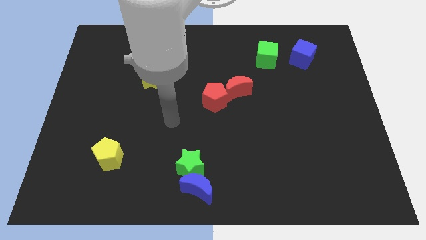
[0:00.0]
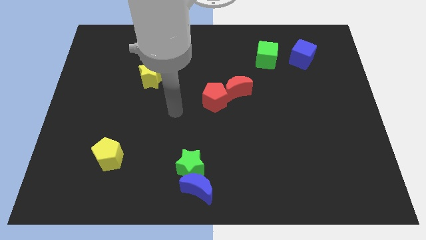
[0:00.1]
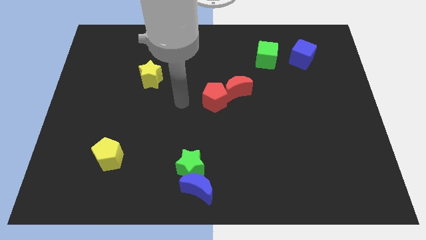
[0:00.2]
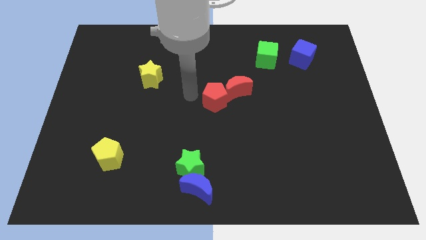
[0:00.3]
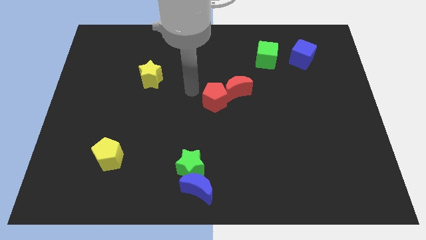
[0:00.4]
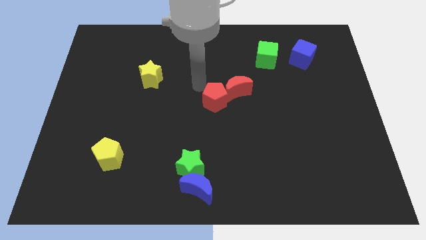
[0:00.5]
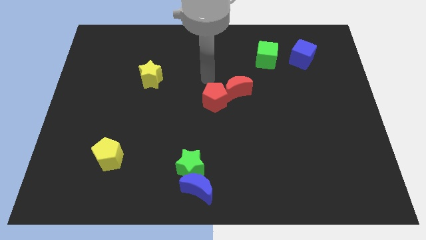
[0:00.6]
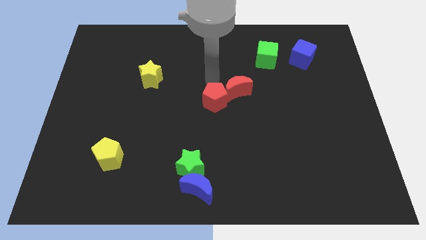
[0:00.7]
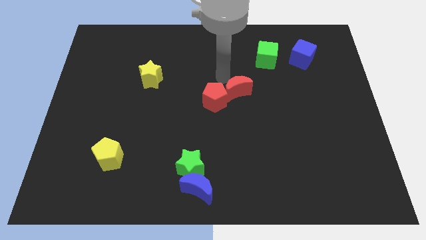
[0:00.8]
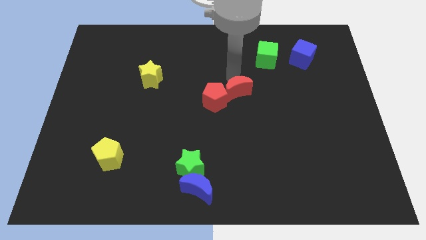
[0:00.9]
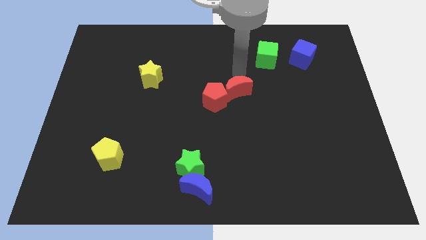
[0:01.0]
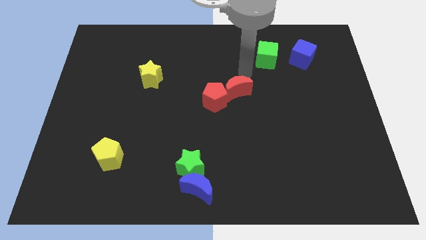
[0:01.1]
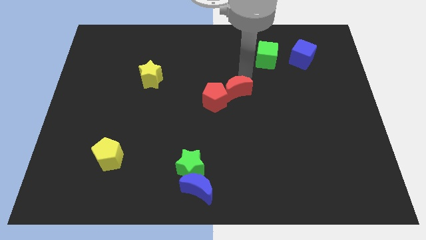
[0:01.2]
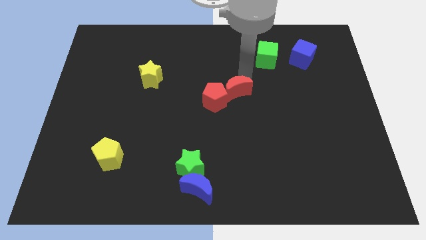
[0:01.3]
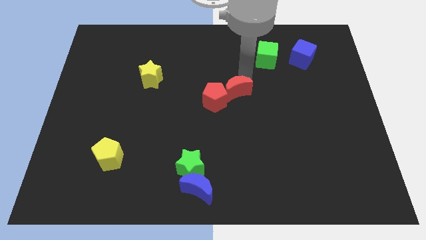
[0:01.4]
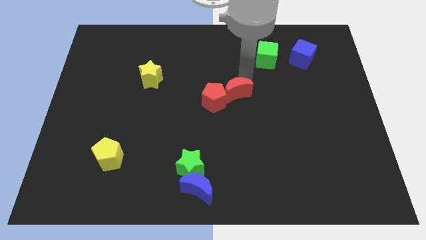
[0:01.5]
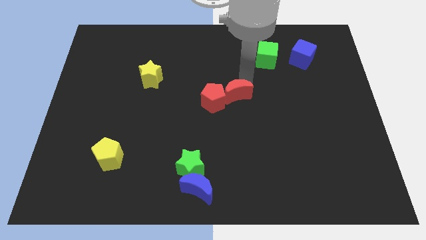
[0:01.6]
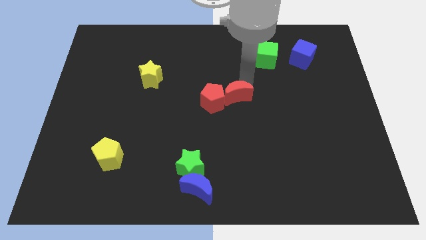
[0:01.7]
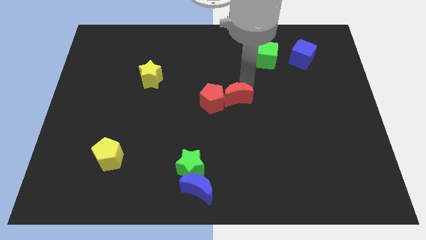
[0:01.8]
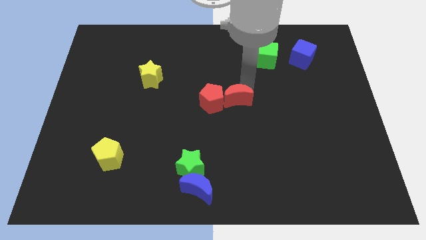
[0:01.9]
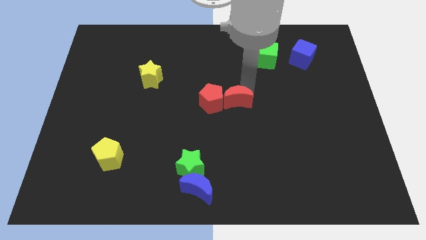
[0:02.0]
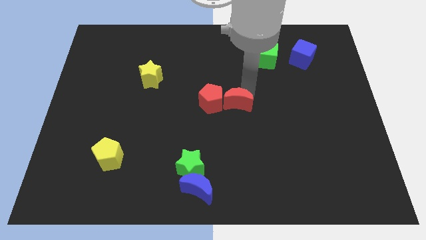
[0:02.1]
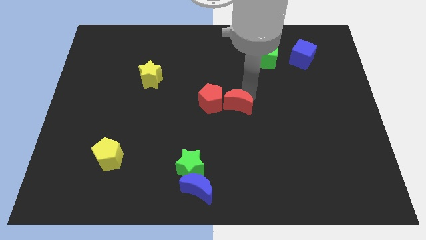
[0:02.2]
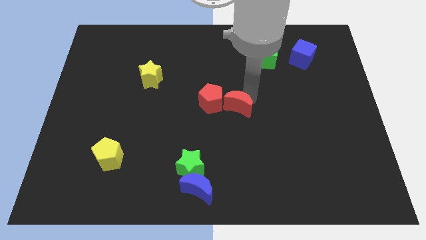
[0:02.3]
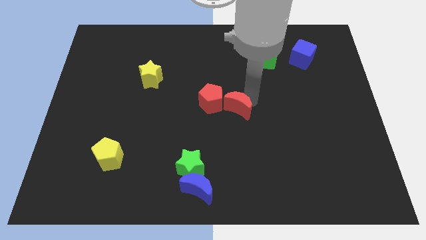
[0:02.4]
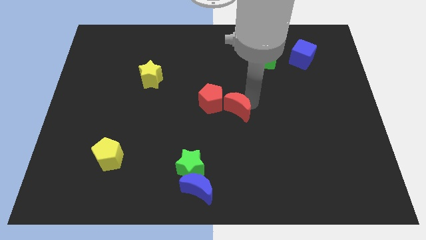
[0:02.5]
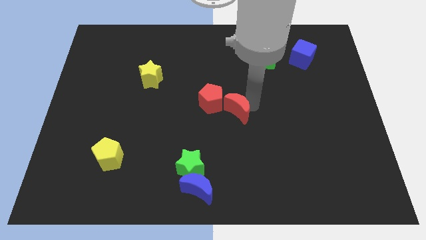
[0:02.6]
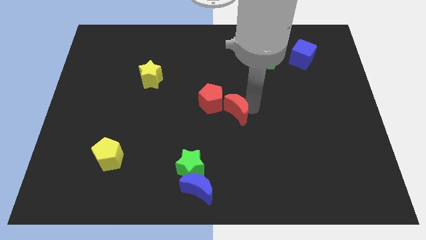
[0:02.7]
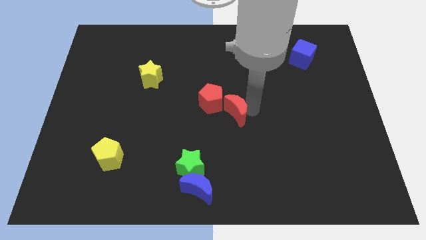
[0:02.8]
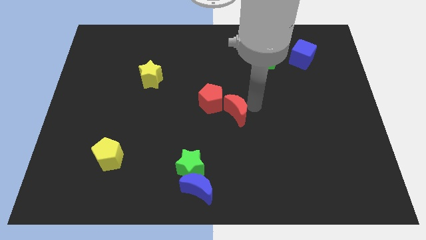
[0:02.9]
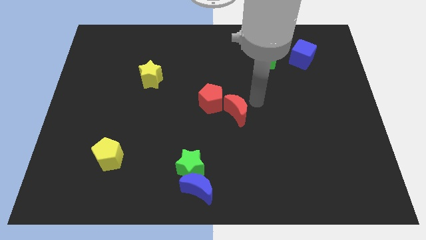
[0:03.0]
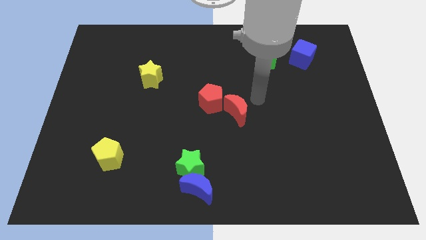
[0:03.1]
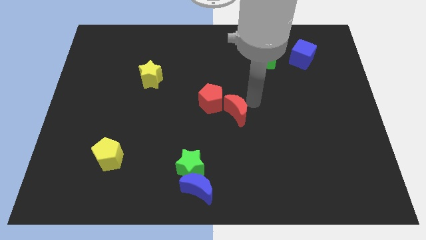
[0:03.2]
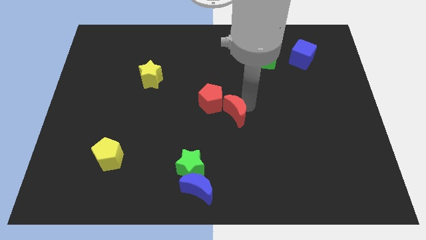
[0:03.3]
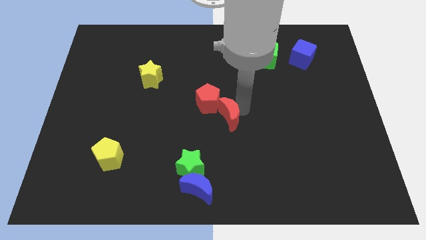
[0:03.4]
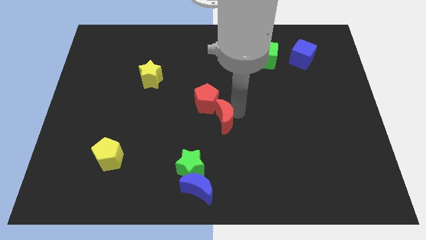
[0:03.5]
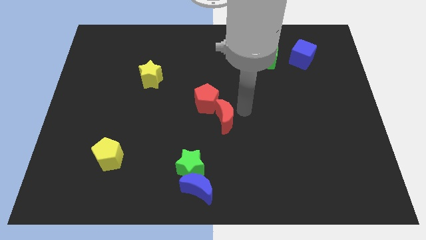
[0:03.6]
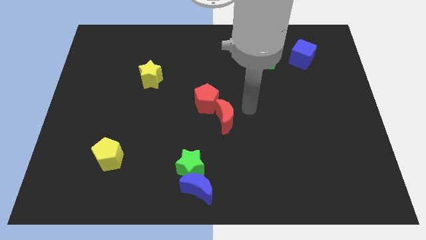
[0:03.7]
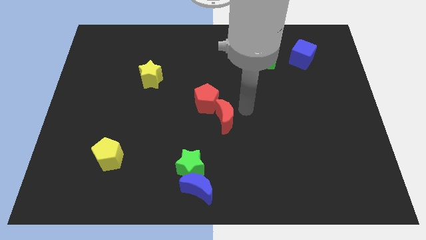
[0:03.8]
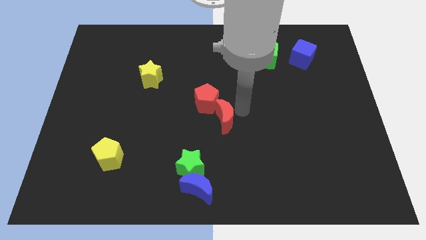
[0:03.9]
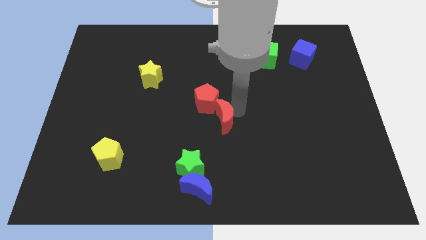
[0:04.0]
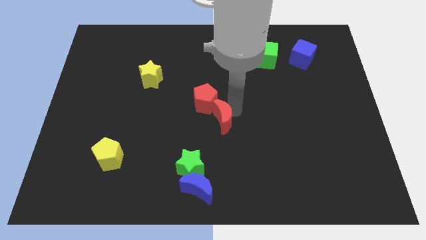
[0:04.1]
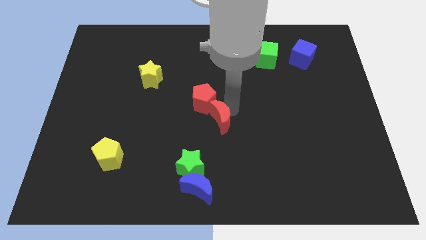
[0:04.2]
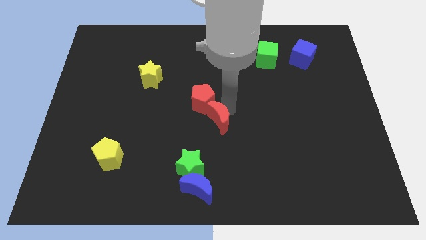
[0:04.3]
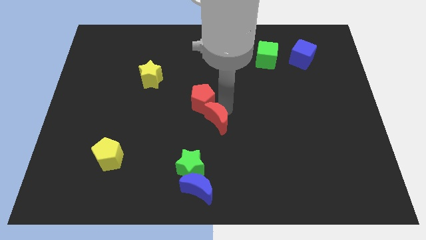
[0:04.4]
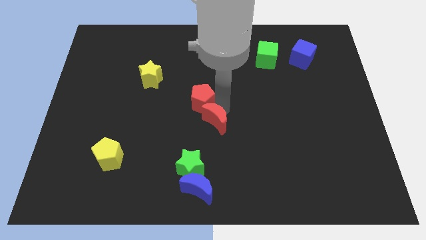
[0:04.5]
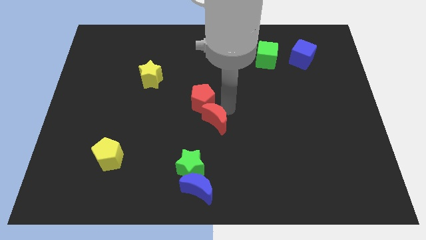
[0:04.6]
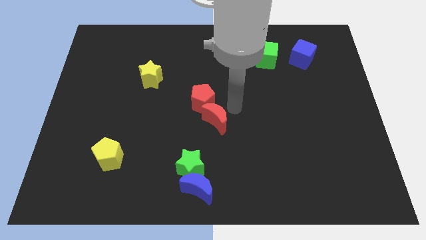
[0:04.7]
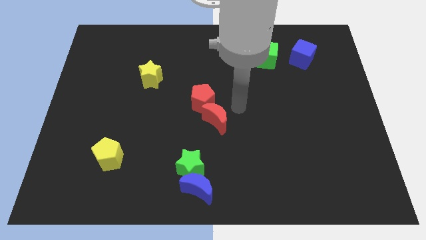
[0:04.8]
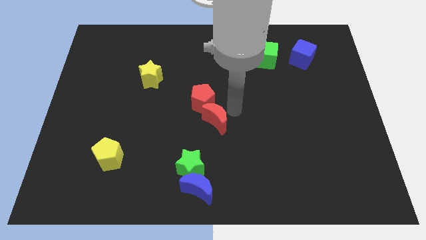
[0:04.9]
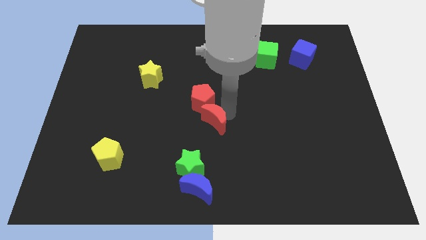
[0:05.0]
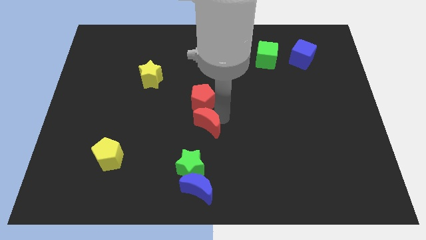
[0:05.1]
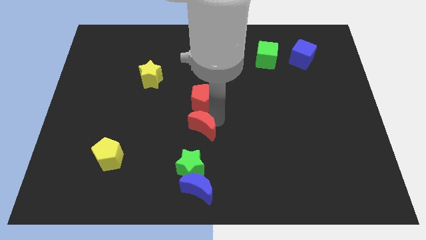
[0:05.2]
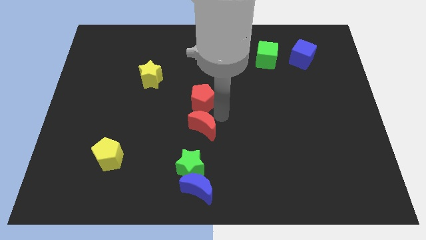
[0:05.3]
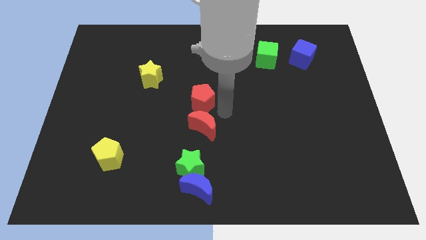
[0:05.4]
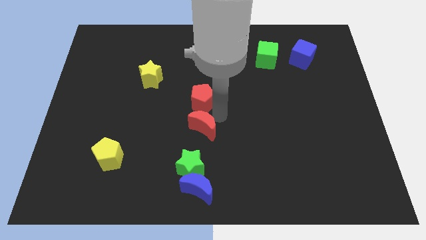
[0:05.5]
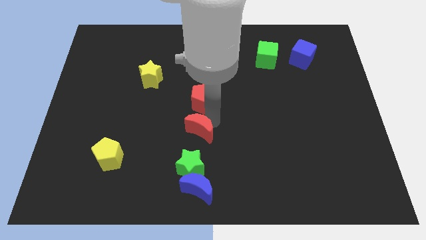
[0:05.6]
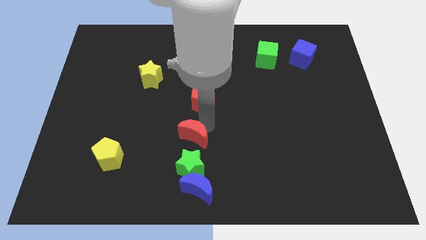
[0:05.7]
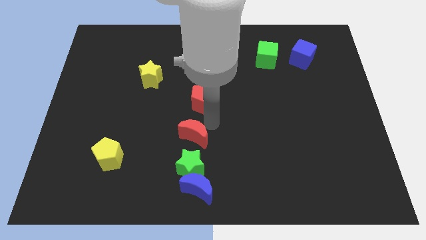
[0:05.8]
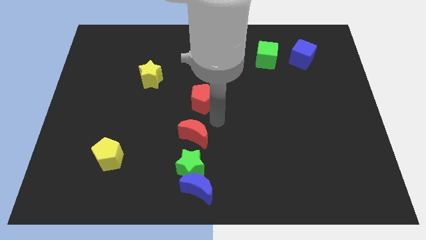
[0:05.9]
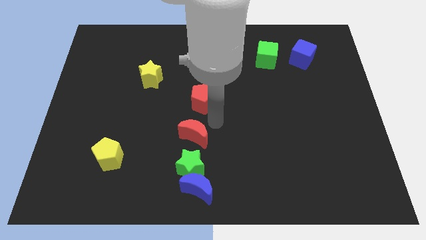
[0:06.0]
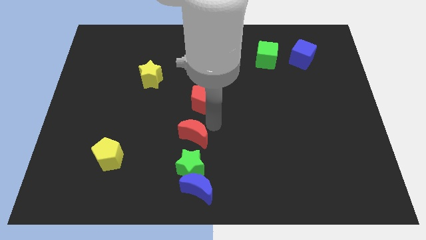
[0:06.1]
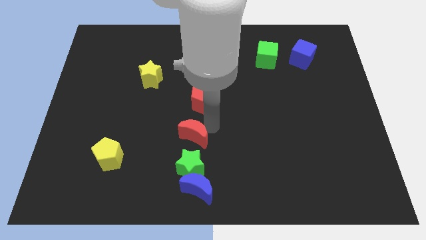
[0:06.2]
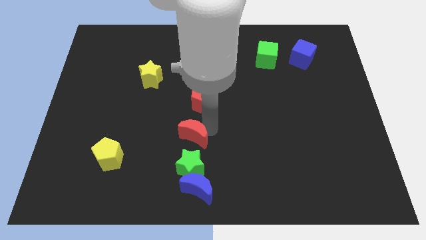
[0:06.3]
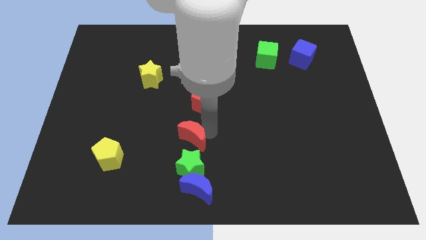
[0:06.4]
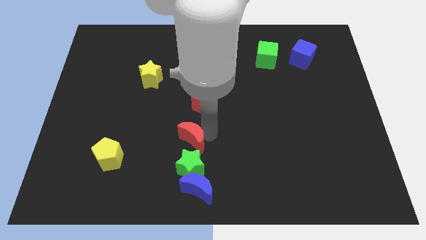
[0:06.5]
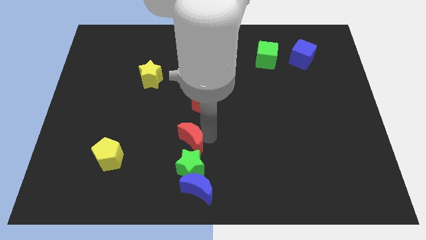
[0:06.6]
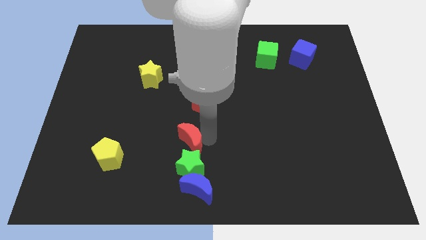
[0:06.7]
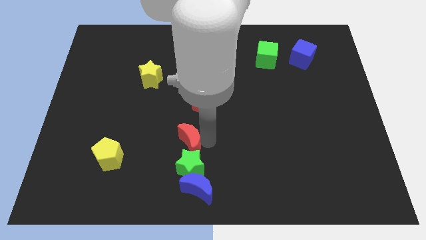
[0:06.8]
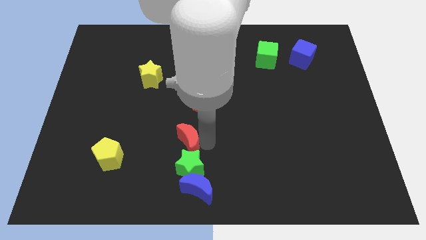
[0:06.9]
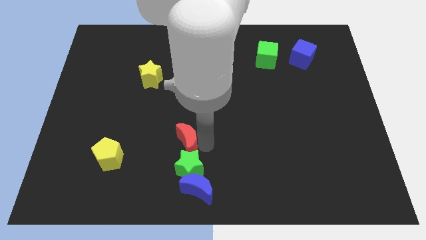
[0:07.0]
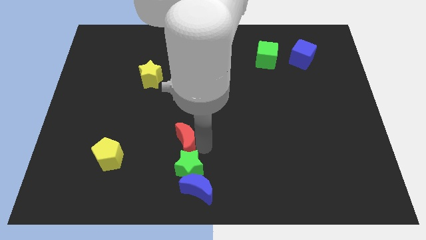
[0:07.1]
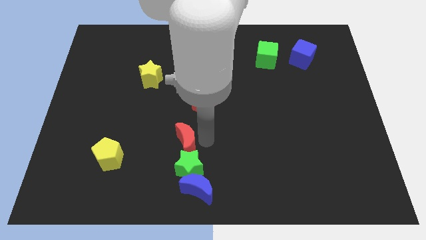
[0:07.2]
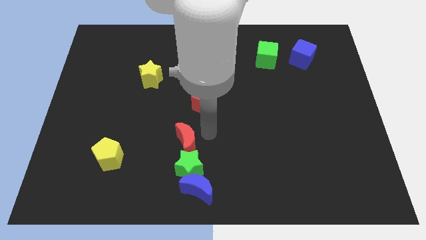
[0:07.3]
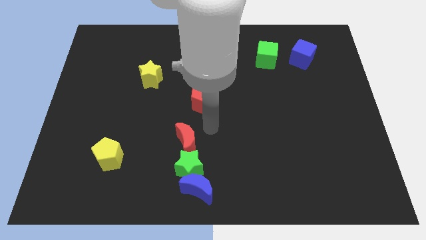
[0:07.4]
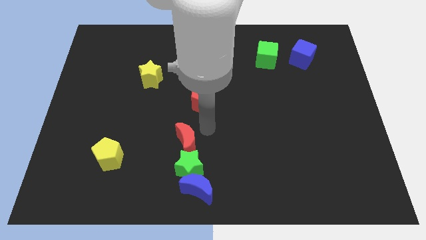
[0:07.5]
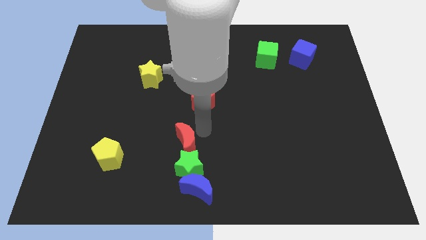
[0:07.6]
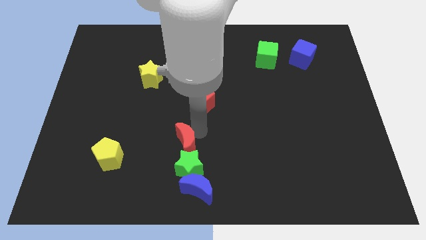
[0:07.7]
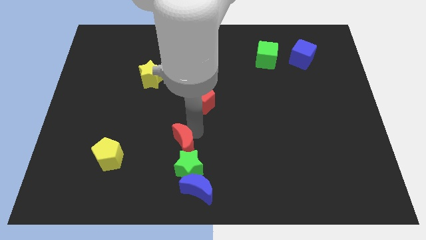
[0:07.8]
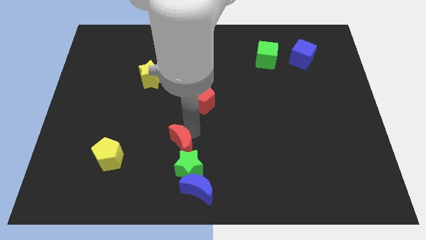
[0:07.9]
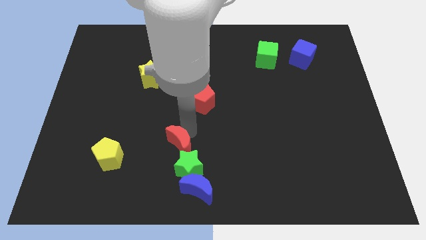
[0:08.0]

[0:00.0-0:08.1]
move the red moon down and to the left
